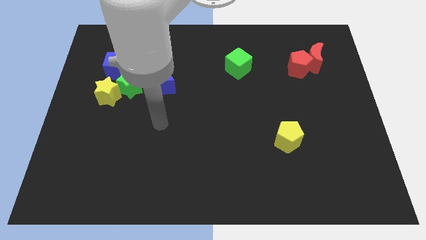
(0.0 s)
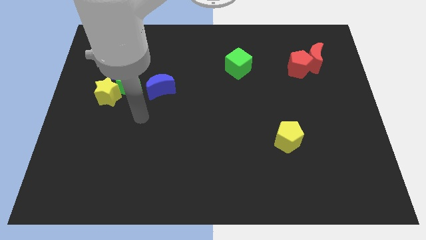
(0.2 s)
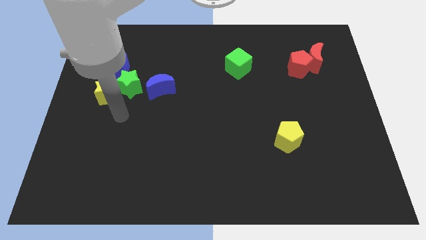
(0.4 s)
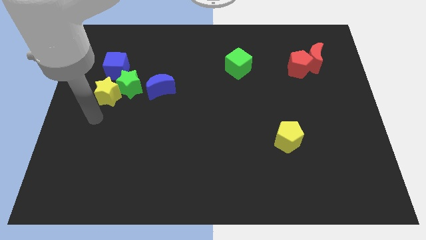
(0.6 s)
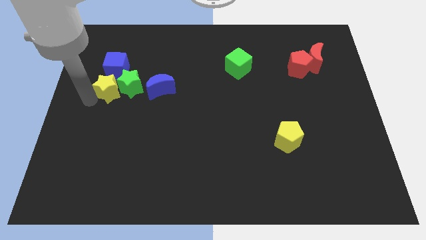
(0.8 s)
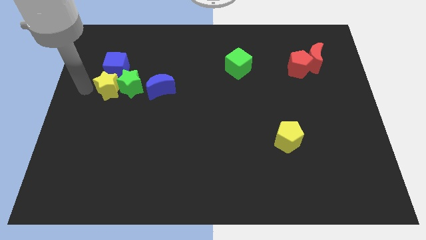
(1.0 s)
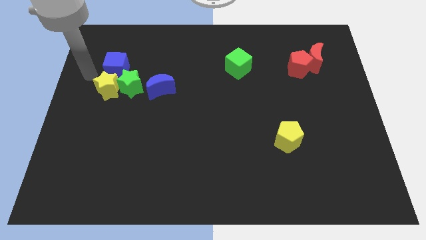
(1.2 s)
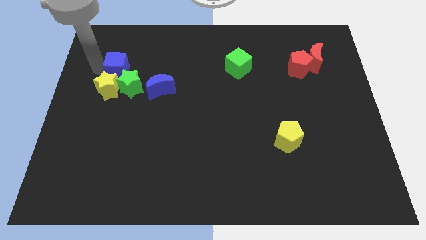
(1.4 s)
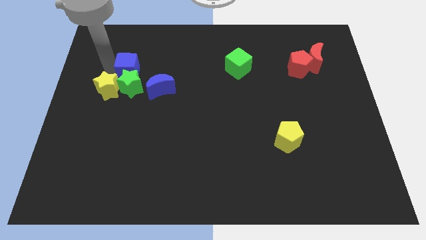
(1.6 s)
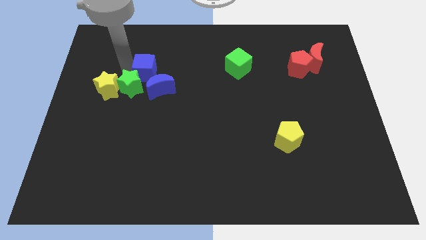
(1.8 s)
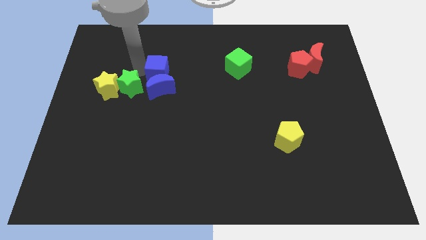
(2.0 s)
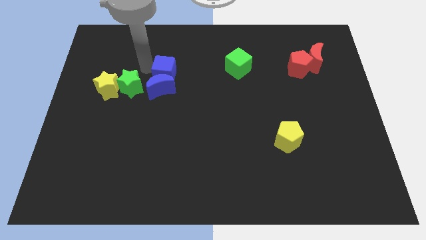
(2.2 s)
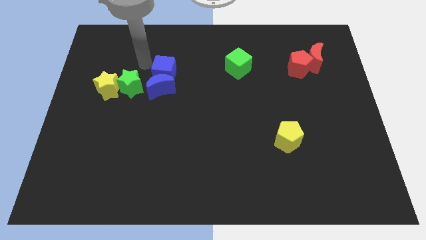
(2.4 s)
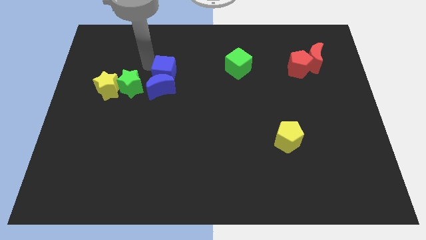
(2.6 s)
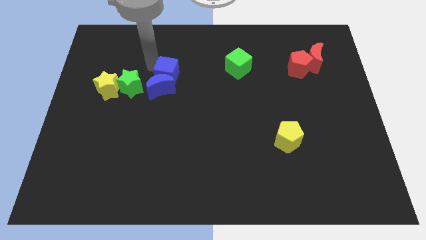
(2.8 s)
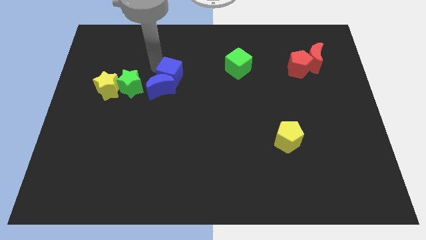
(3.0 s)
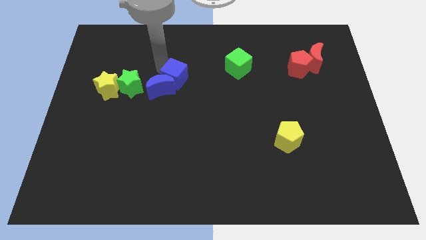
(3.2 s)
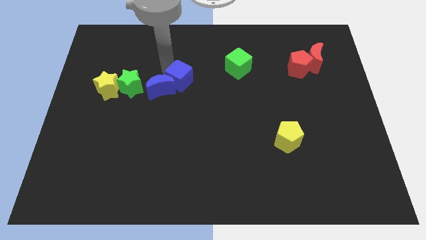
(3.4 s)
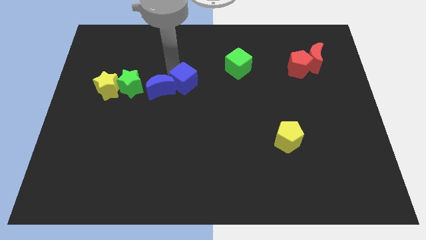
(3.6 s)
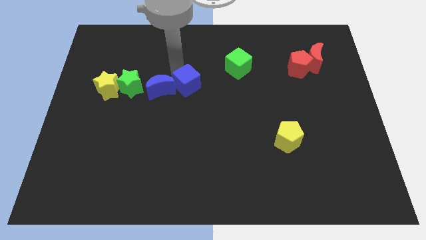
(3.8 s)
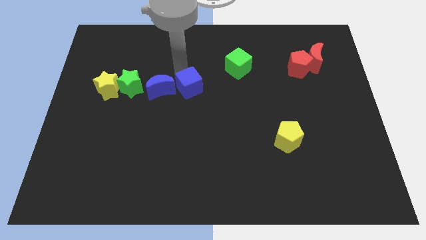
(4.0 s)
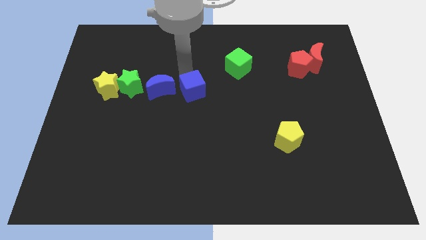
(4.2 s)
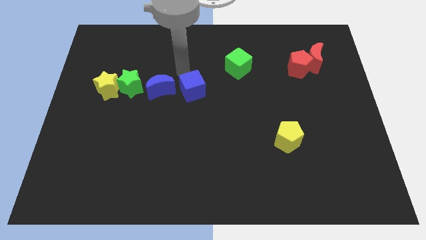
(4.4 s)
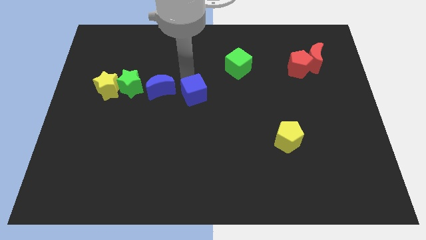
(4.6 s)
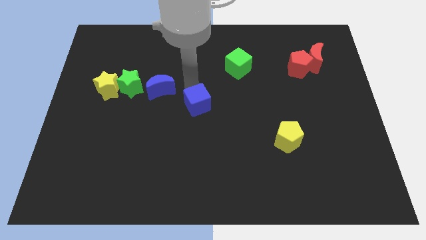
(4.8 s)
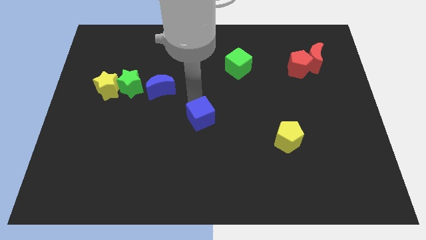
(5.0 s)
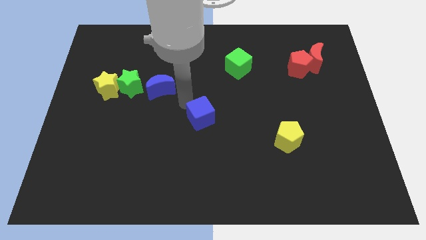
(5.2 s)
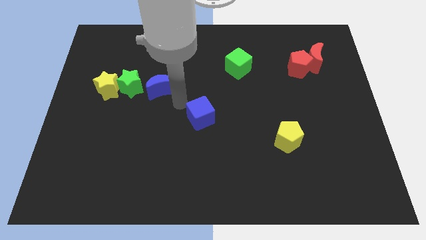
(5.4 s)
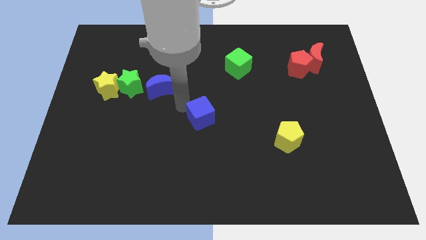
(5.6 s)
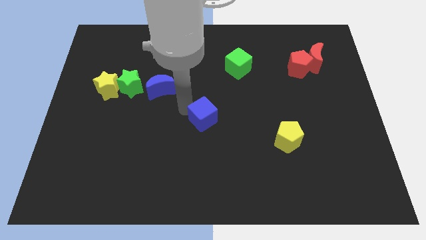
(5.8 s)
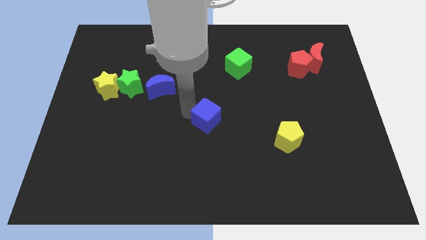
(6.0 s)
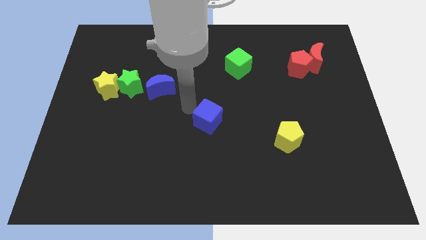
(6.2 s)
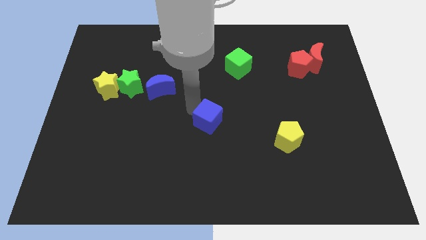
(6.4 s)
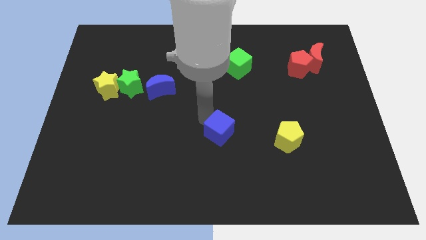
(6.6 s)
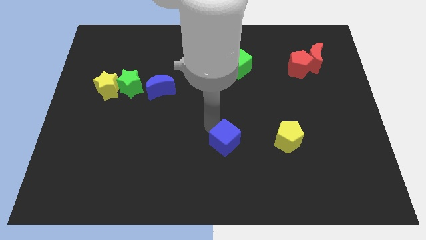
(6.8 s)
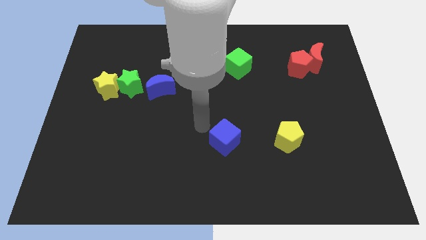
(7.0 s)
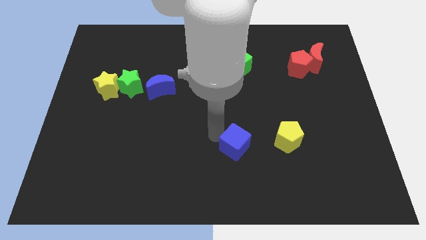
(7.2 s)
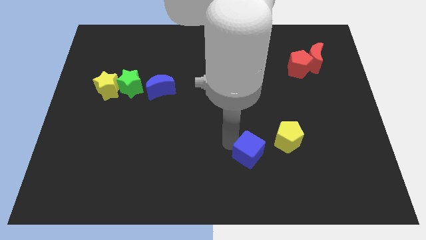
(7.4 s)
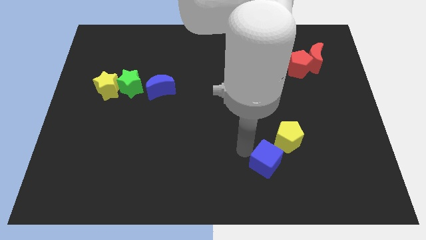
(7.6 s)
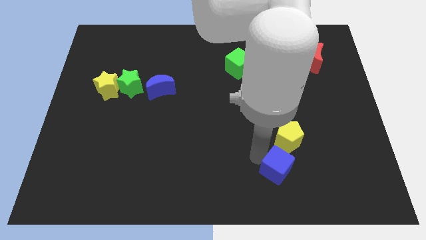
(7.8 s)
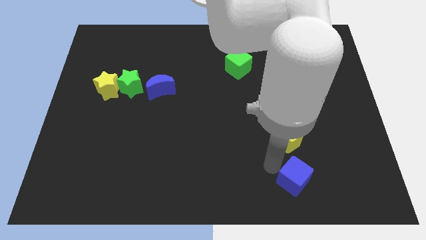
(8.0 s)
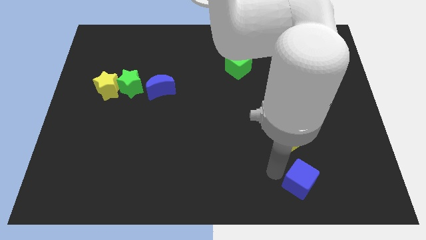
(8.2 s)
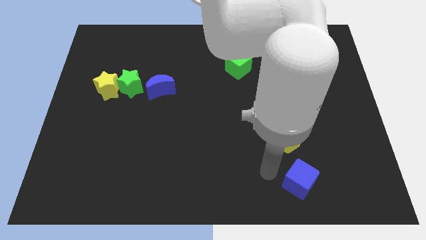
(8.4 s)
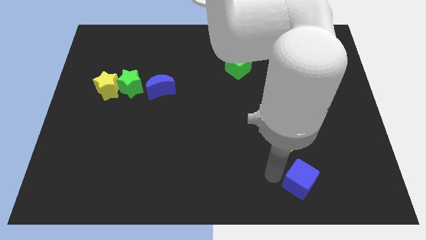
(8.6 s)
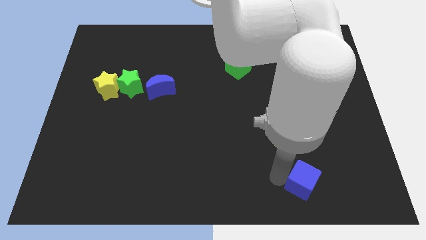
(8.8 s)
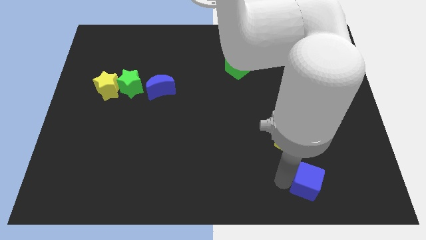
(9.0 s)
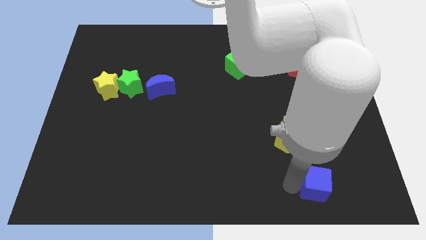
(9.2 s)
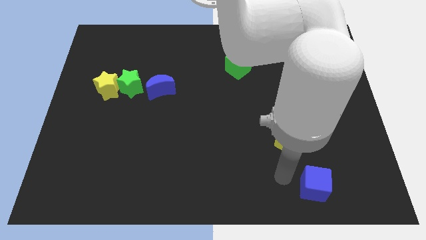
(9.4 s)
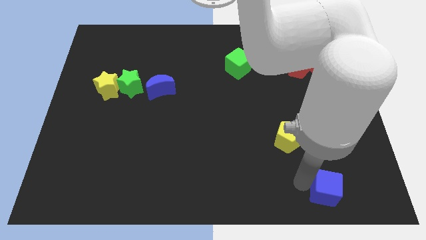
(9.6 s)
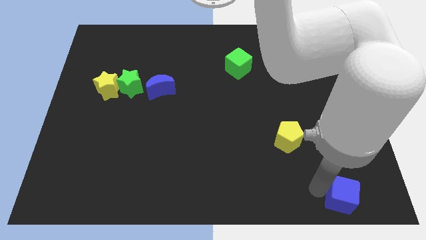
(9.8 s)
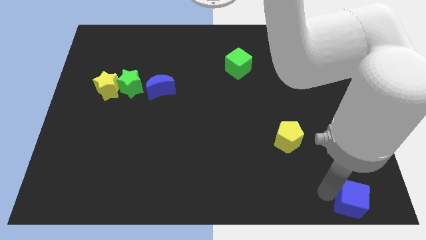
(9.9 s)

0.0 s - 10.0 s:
push the blue cube to the bottom right

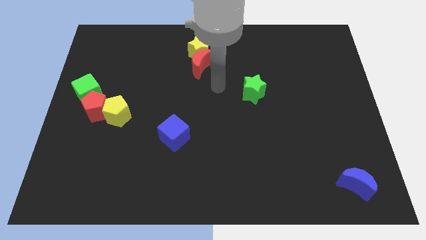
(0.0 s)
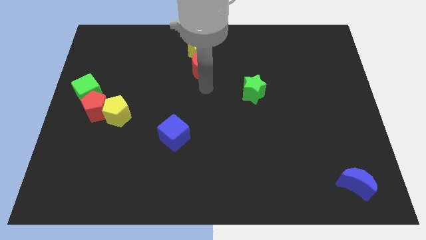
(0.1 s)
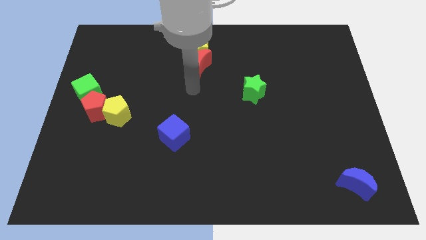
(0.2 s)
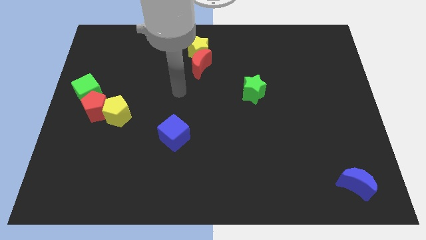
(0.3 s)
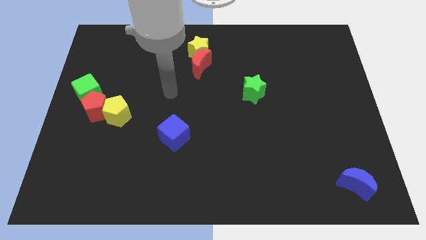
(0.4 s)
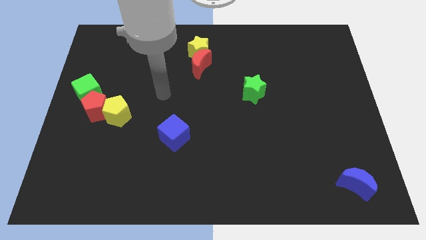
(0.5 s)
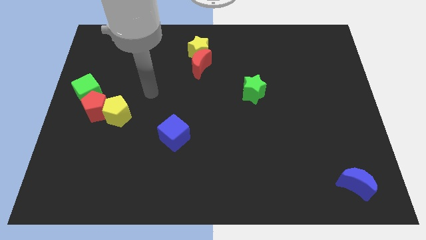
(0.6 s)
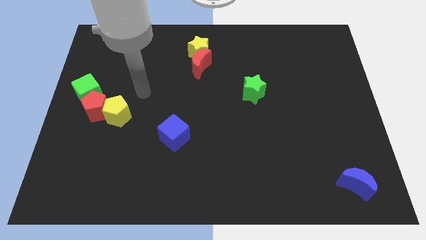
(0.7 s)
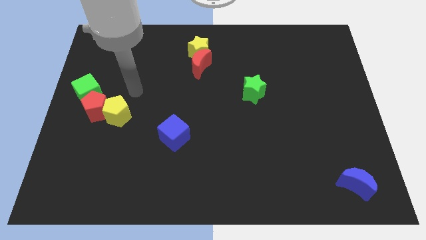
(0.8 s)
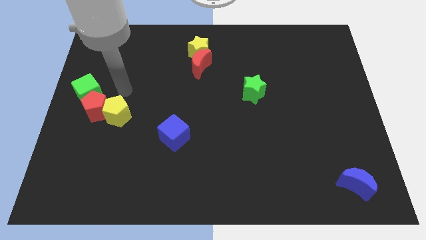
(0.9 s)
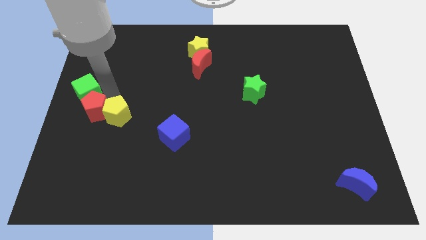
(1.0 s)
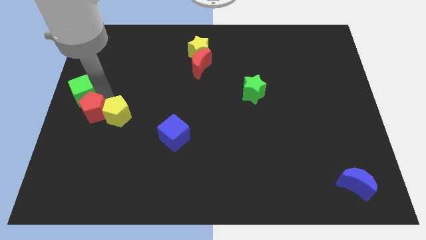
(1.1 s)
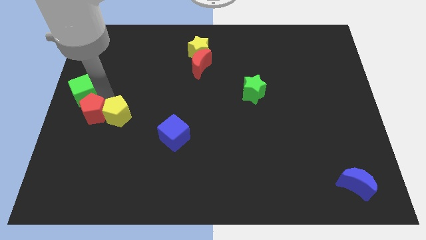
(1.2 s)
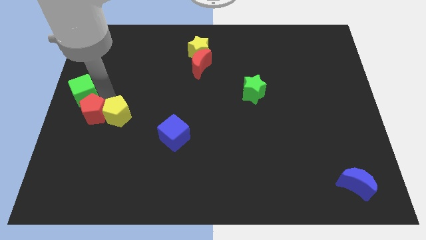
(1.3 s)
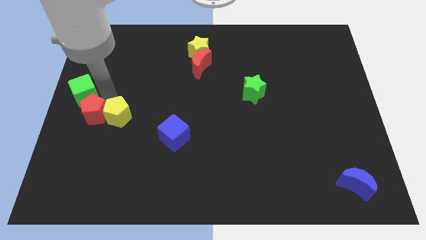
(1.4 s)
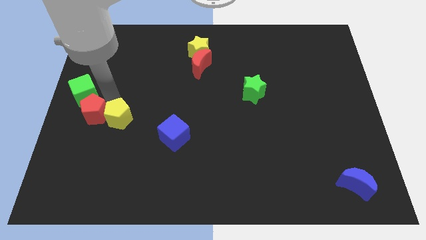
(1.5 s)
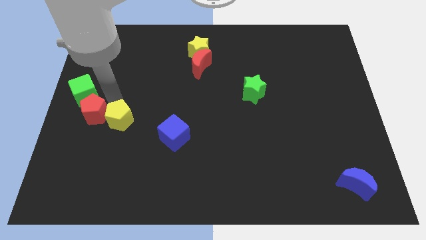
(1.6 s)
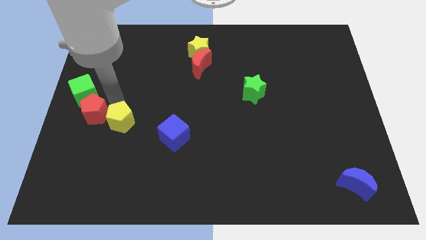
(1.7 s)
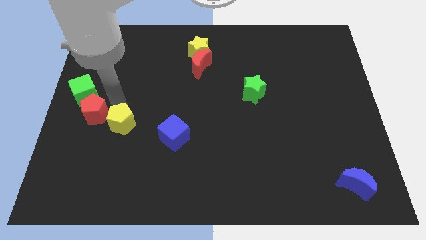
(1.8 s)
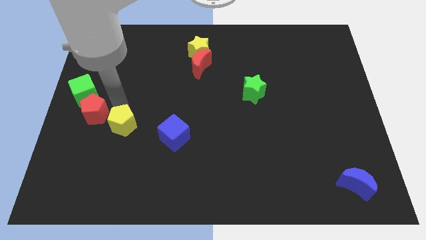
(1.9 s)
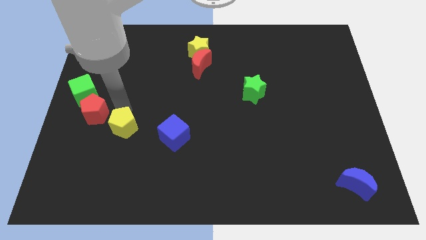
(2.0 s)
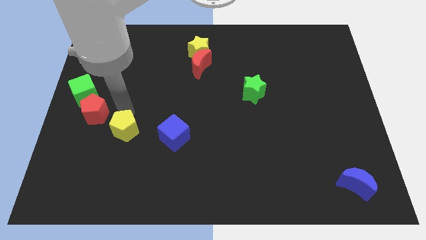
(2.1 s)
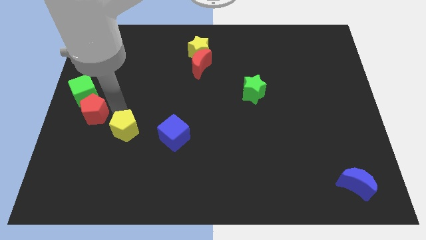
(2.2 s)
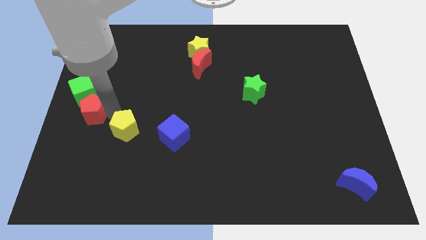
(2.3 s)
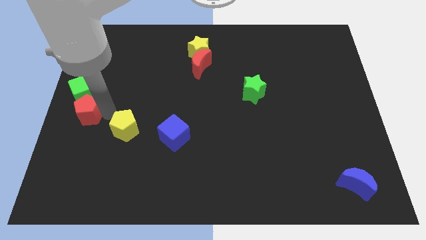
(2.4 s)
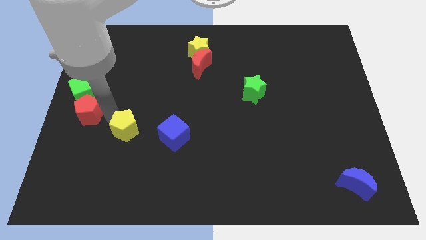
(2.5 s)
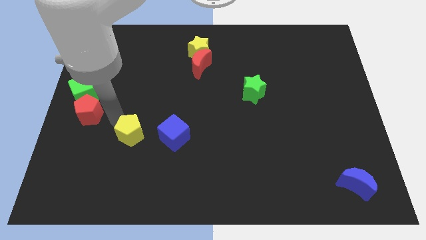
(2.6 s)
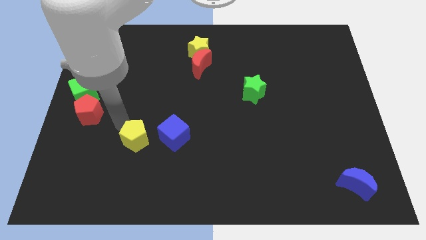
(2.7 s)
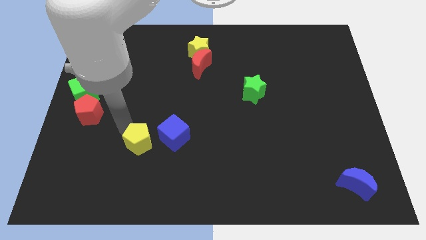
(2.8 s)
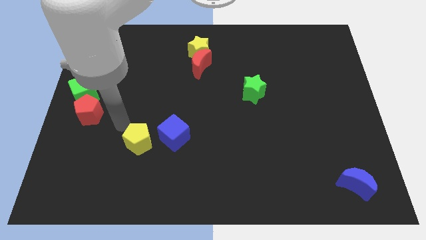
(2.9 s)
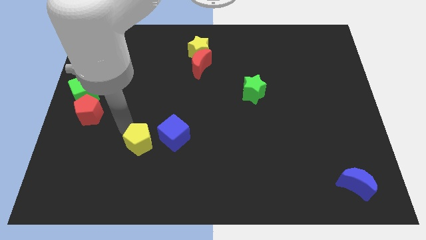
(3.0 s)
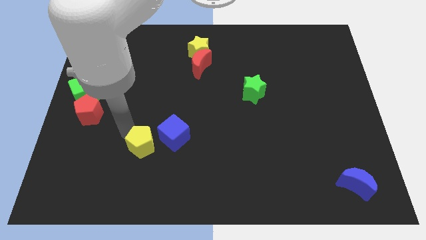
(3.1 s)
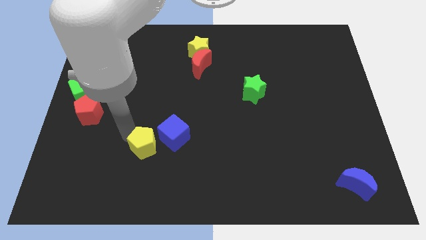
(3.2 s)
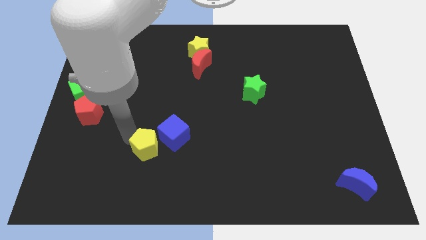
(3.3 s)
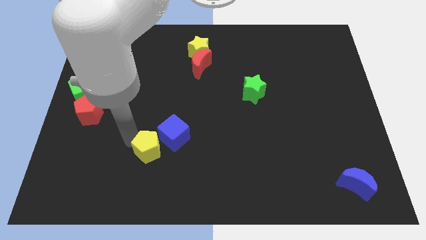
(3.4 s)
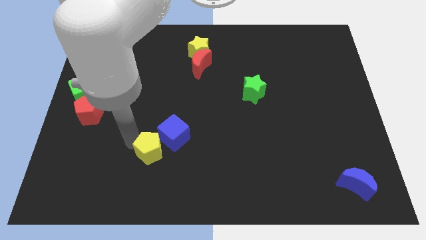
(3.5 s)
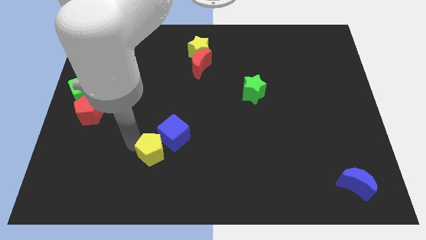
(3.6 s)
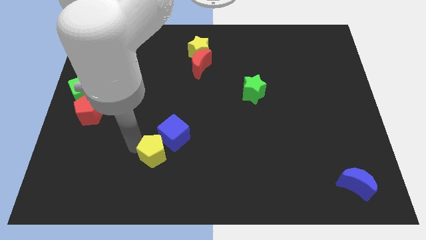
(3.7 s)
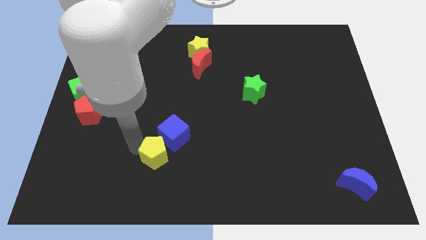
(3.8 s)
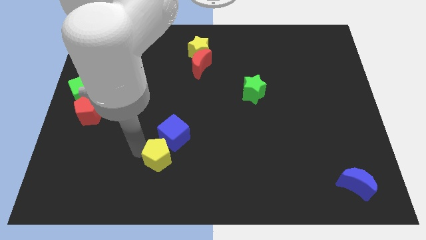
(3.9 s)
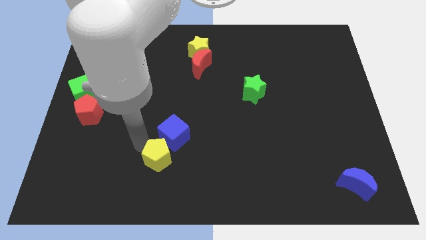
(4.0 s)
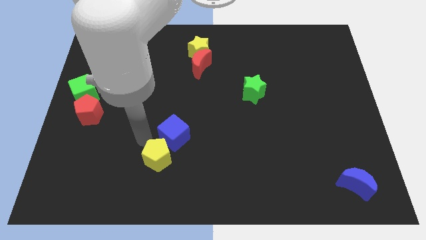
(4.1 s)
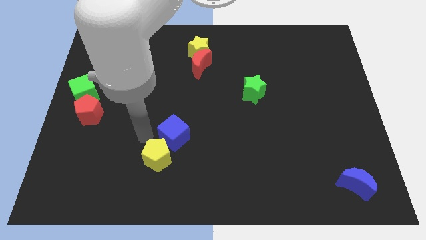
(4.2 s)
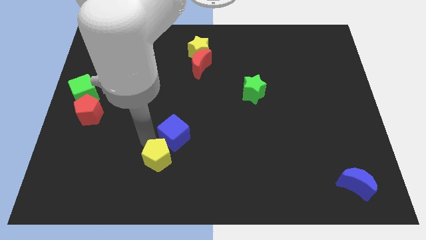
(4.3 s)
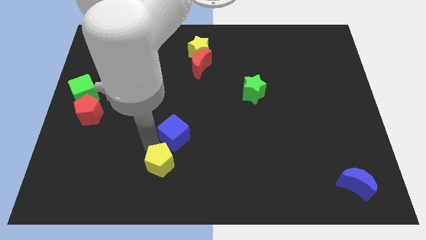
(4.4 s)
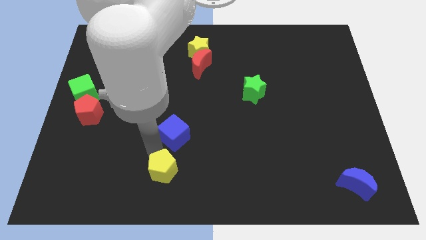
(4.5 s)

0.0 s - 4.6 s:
put the yellow pentagon to the bottom
